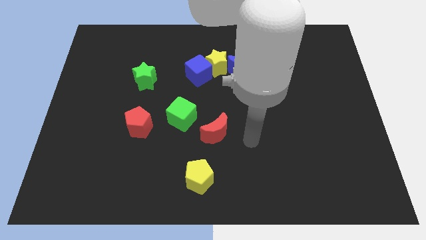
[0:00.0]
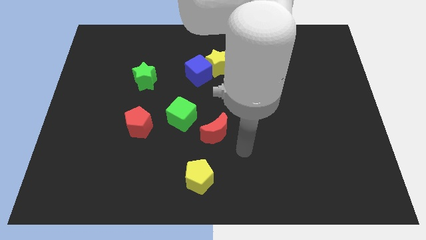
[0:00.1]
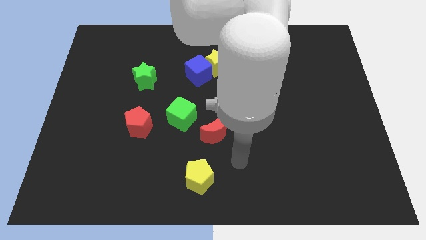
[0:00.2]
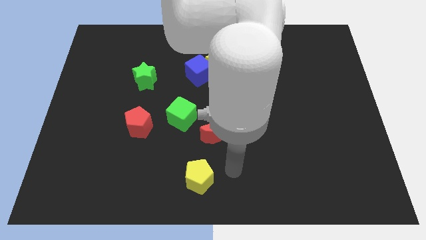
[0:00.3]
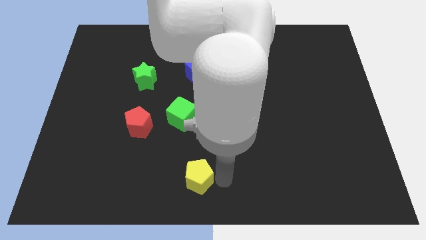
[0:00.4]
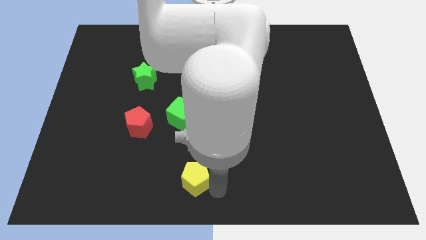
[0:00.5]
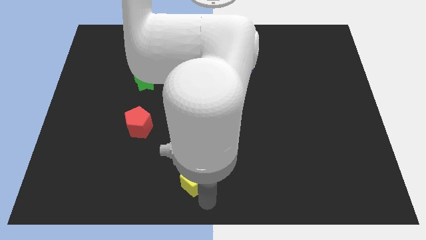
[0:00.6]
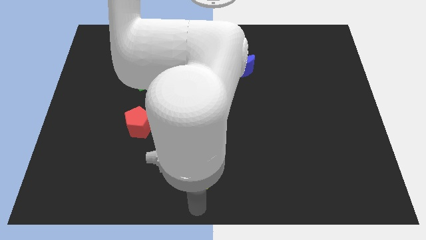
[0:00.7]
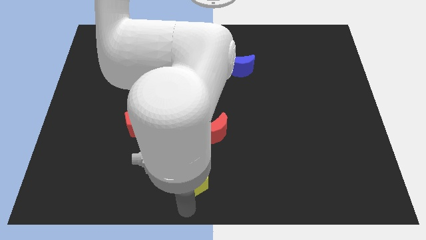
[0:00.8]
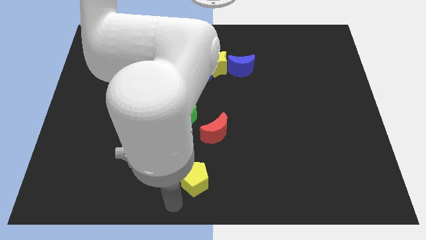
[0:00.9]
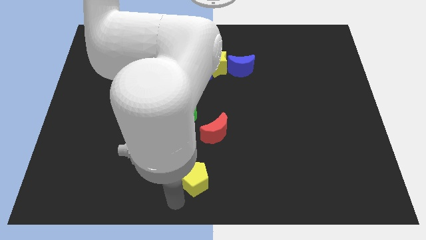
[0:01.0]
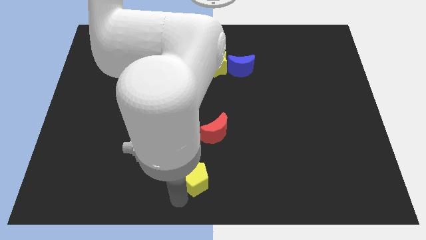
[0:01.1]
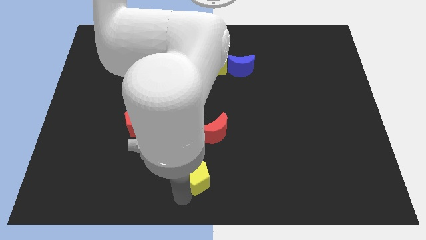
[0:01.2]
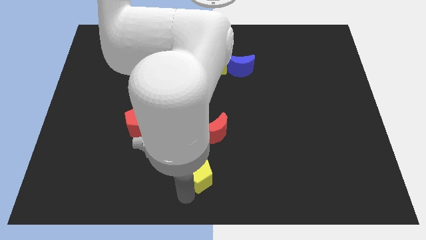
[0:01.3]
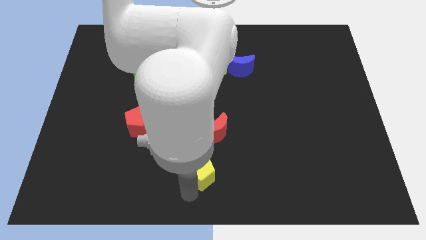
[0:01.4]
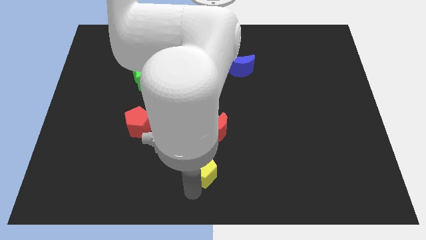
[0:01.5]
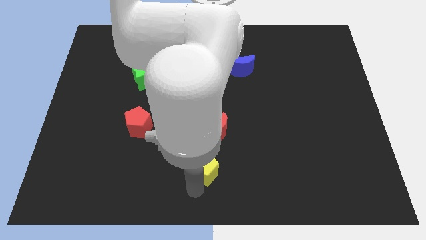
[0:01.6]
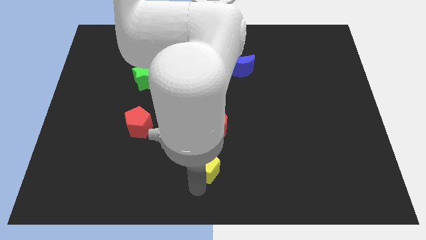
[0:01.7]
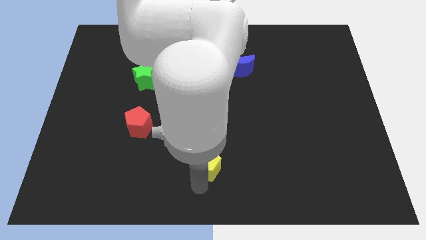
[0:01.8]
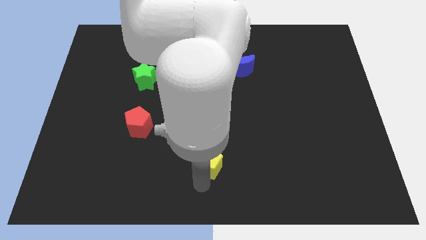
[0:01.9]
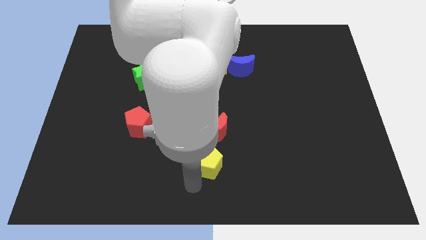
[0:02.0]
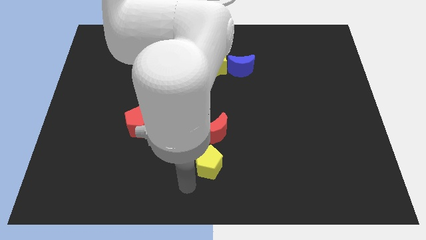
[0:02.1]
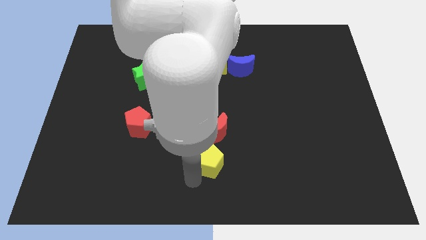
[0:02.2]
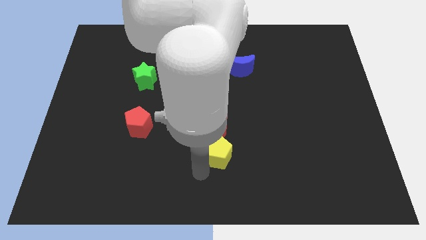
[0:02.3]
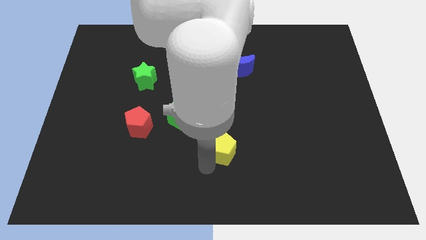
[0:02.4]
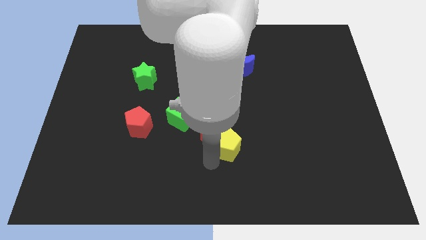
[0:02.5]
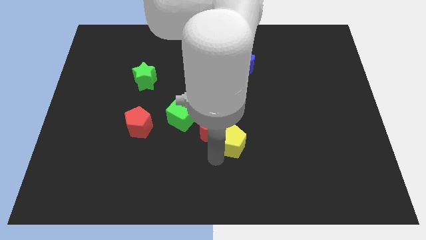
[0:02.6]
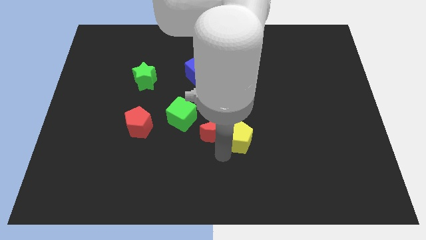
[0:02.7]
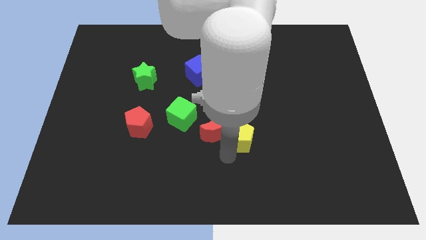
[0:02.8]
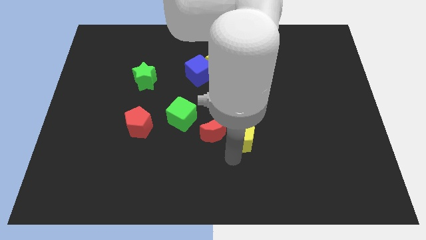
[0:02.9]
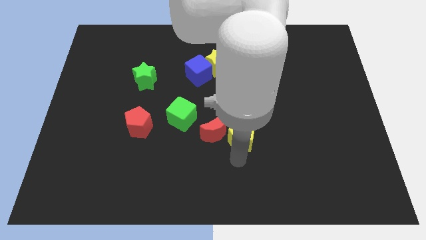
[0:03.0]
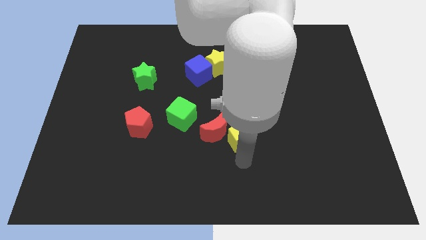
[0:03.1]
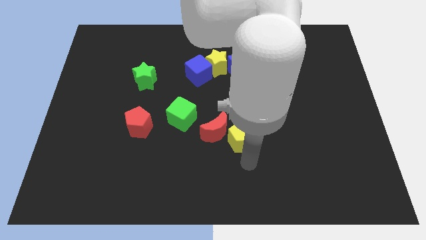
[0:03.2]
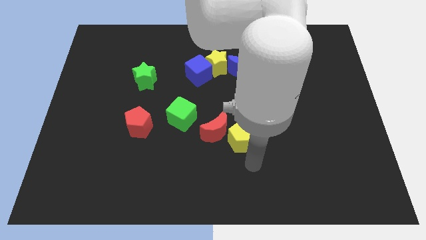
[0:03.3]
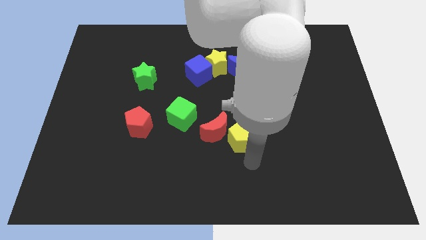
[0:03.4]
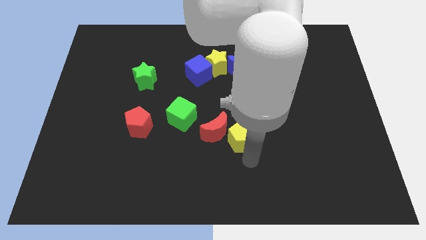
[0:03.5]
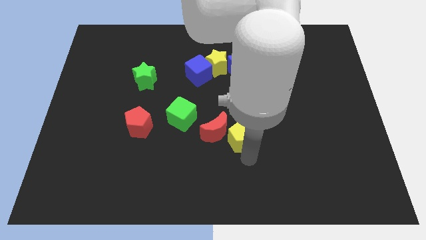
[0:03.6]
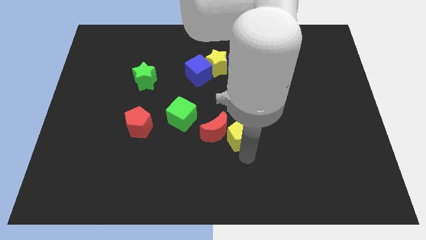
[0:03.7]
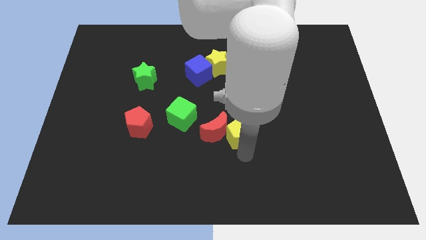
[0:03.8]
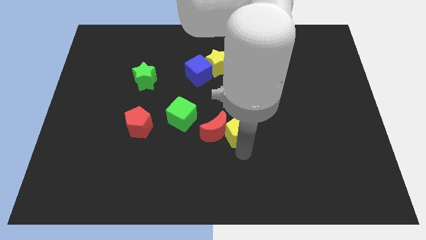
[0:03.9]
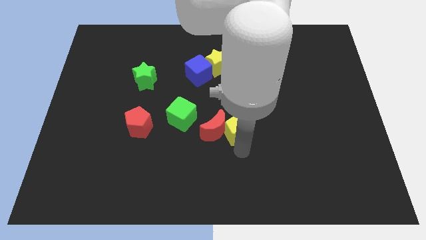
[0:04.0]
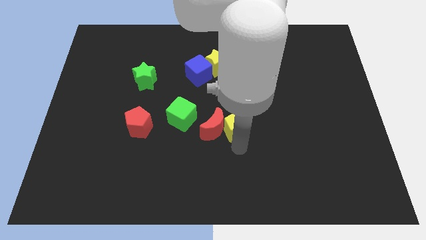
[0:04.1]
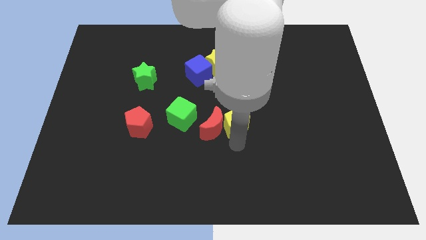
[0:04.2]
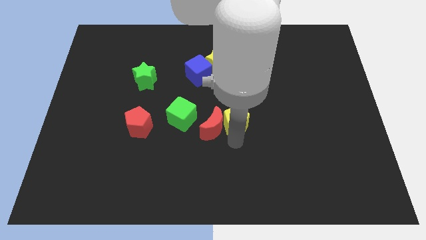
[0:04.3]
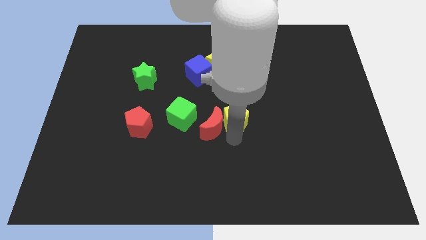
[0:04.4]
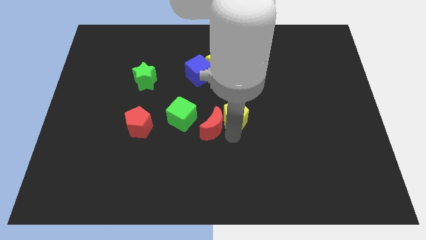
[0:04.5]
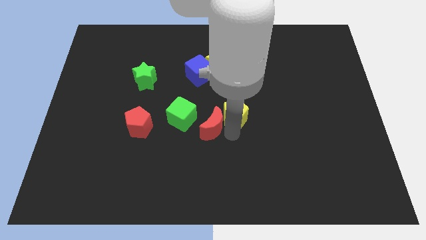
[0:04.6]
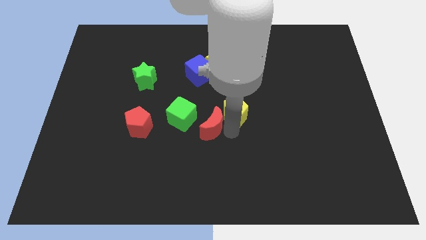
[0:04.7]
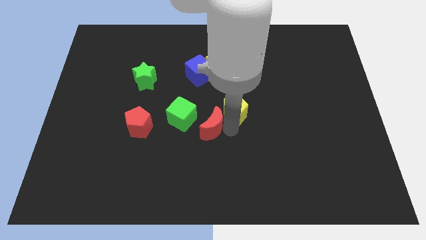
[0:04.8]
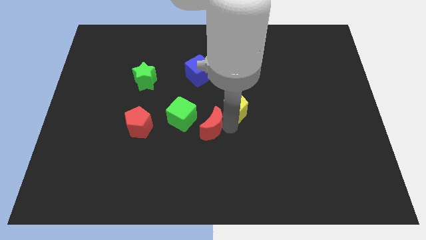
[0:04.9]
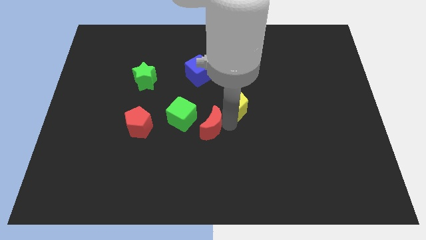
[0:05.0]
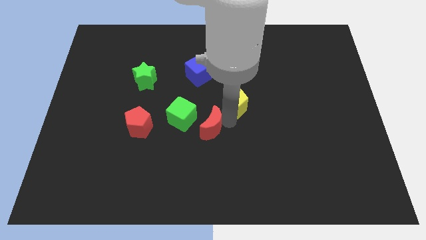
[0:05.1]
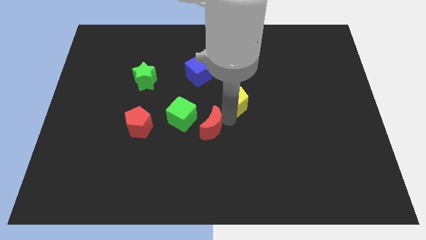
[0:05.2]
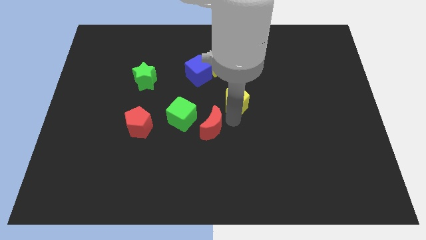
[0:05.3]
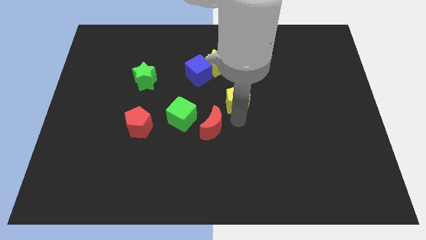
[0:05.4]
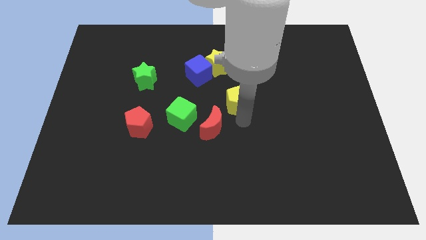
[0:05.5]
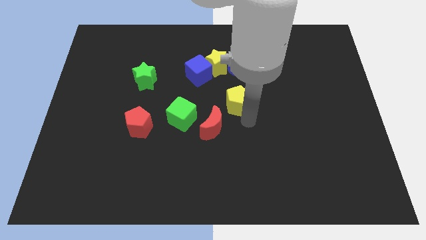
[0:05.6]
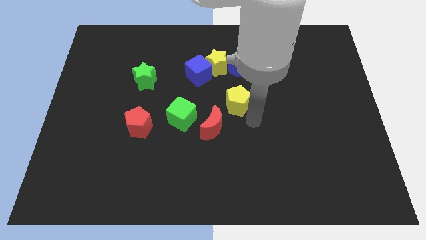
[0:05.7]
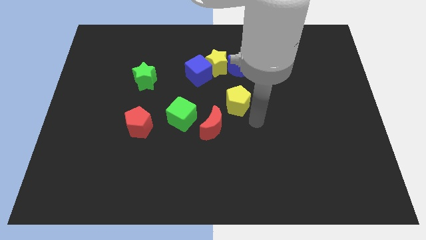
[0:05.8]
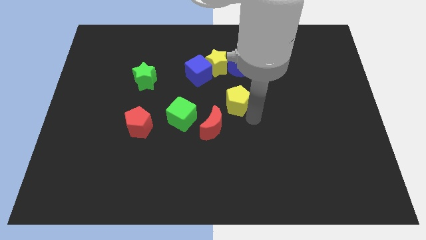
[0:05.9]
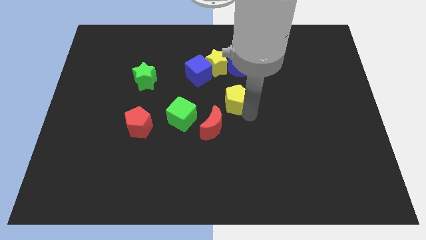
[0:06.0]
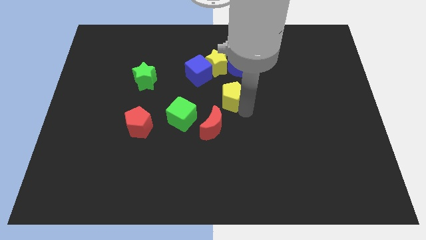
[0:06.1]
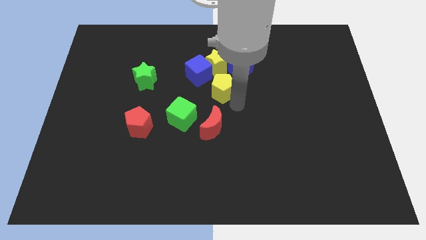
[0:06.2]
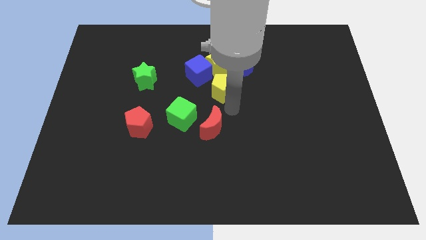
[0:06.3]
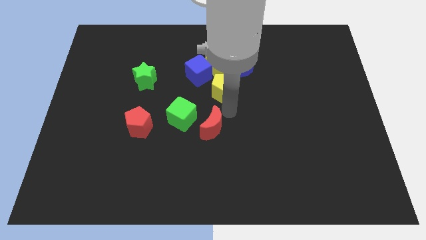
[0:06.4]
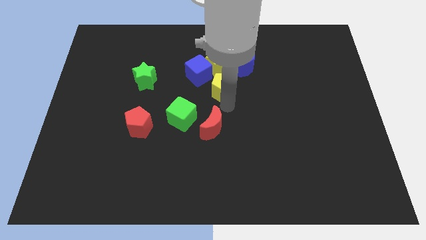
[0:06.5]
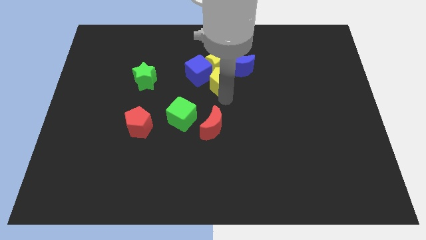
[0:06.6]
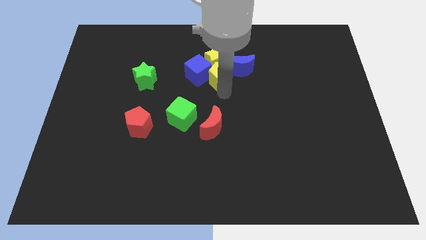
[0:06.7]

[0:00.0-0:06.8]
put the yellow pentagon towards the yellow star

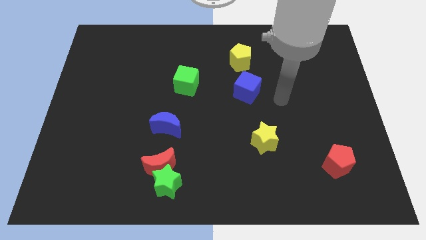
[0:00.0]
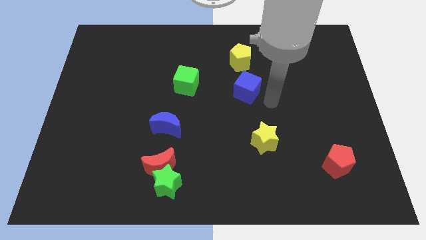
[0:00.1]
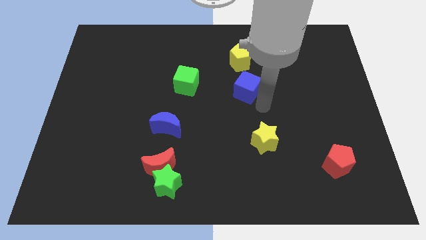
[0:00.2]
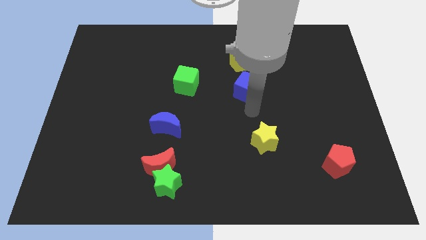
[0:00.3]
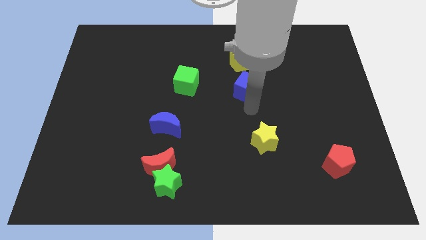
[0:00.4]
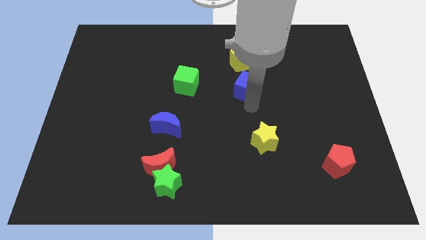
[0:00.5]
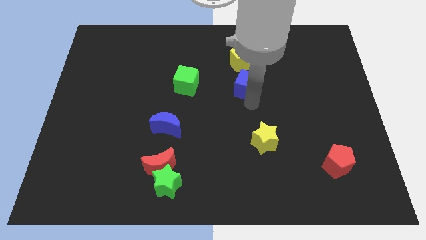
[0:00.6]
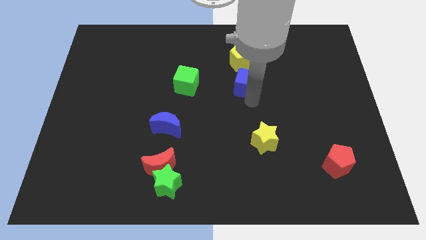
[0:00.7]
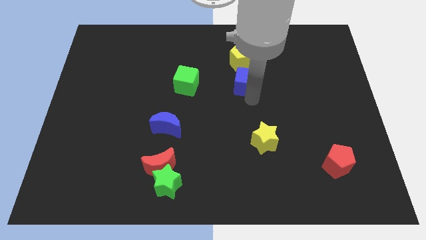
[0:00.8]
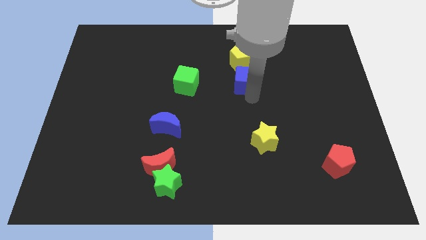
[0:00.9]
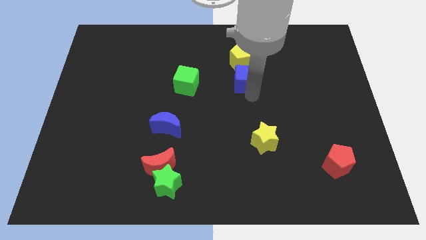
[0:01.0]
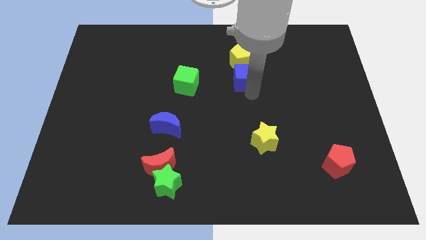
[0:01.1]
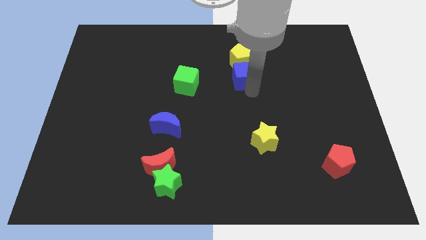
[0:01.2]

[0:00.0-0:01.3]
put the blue cube to the yellow pentagon

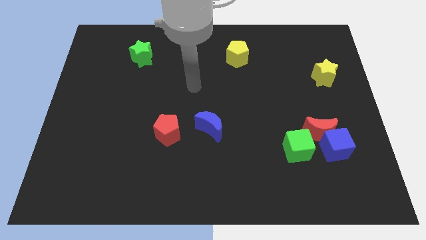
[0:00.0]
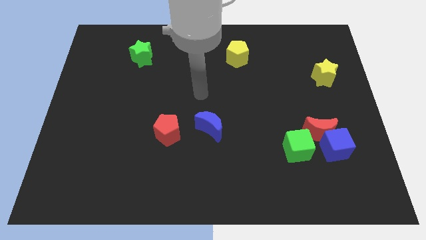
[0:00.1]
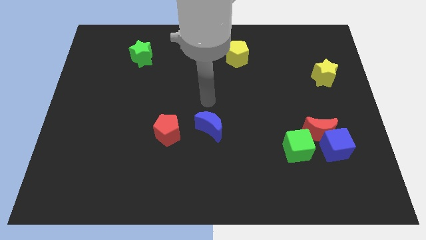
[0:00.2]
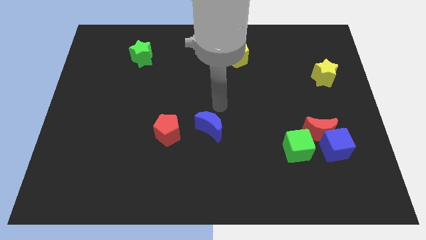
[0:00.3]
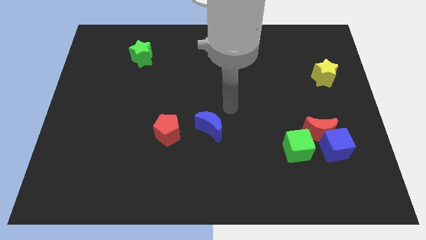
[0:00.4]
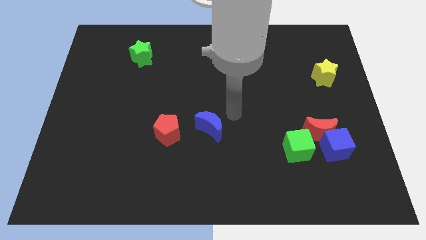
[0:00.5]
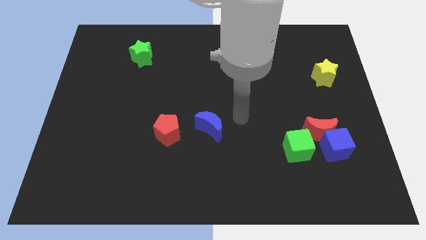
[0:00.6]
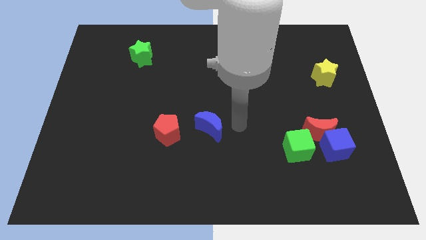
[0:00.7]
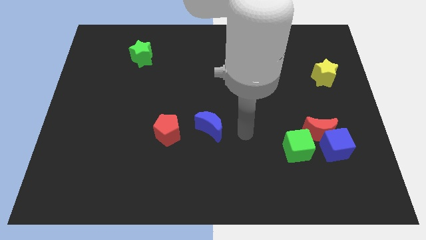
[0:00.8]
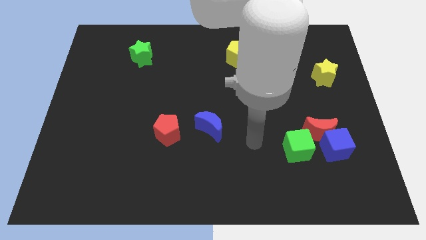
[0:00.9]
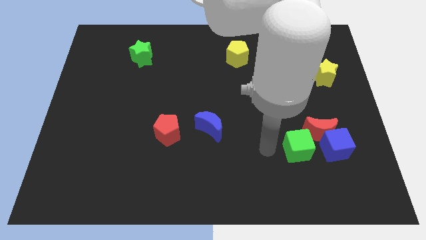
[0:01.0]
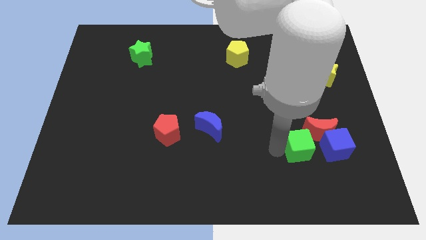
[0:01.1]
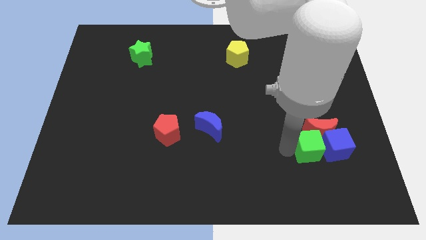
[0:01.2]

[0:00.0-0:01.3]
put the green cube towards the blue cube
